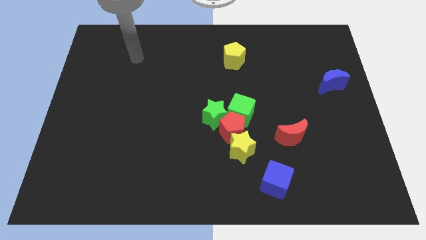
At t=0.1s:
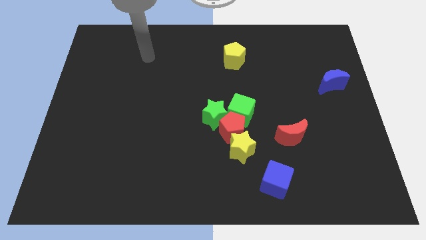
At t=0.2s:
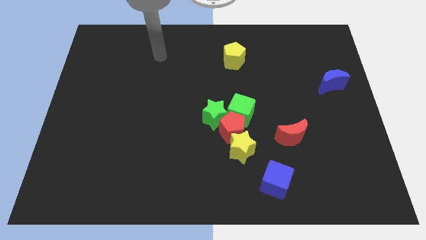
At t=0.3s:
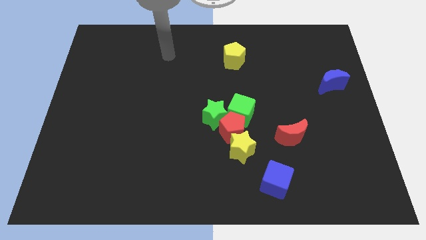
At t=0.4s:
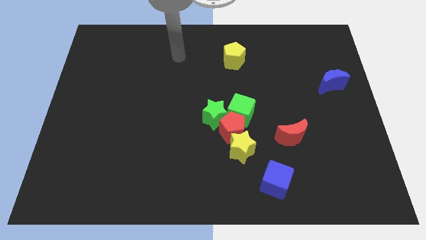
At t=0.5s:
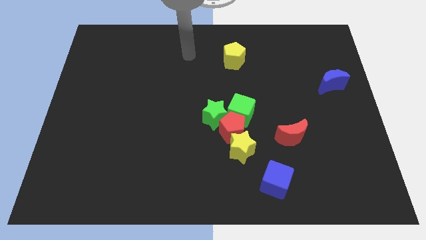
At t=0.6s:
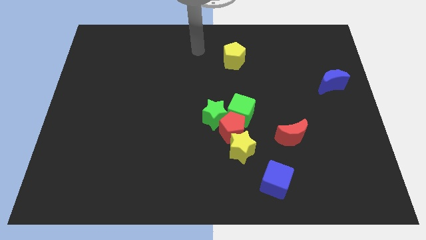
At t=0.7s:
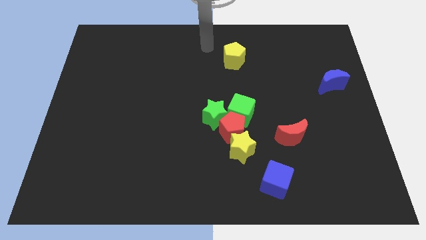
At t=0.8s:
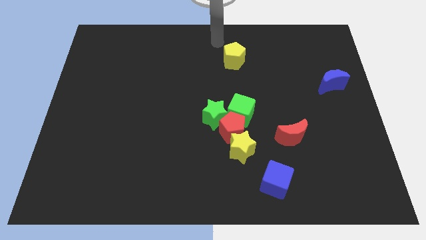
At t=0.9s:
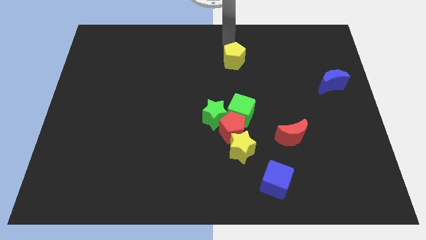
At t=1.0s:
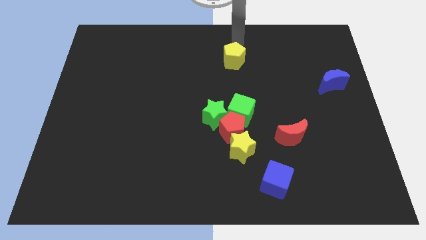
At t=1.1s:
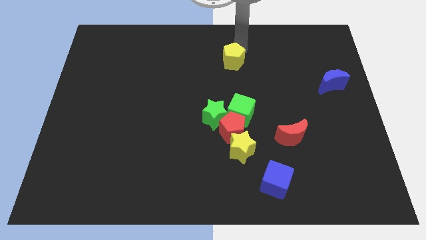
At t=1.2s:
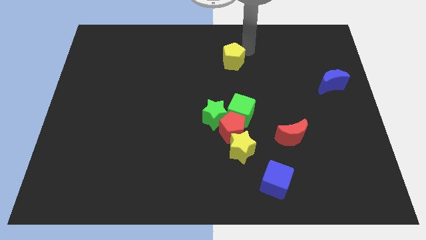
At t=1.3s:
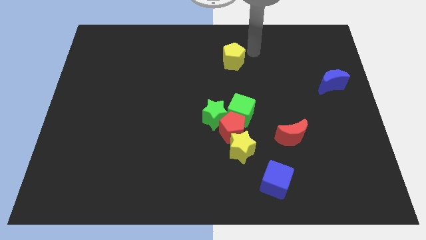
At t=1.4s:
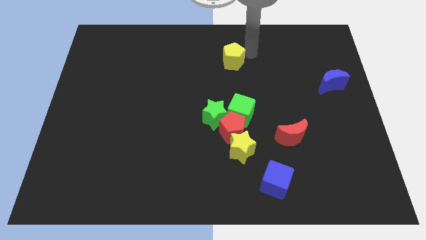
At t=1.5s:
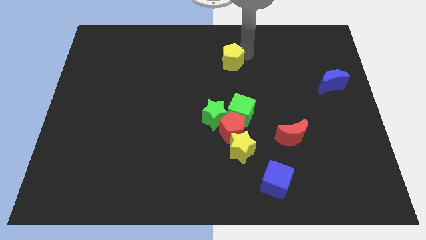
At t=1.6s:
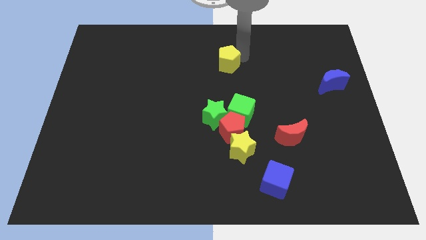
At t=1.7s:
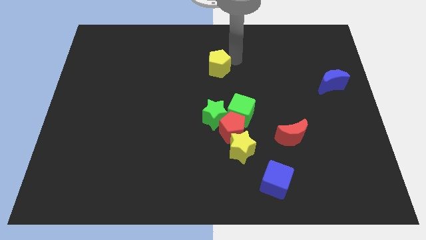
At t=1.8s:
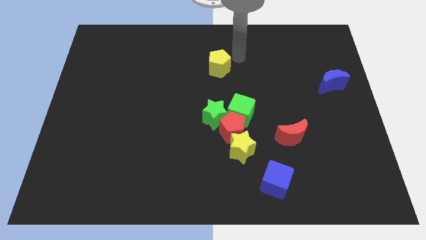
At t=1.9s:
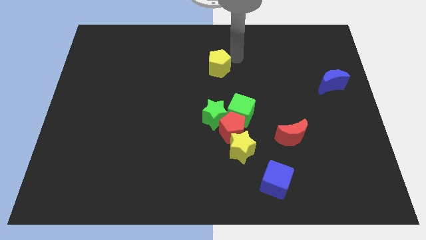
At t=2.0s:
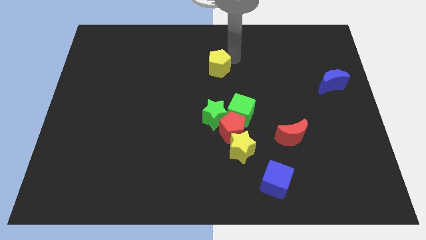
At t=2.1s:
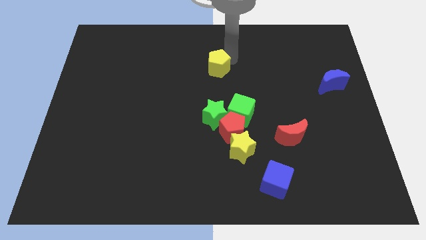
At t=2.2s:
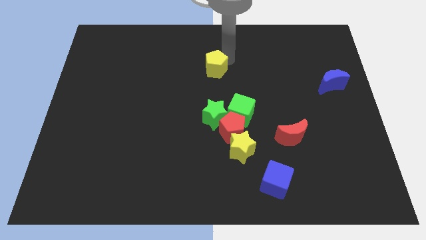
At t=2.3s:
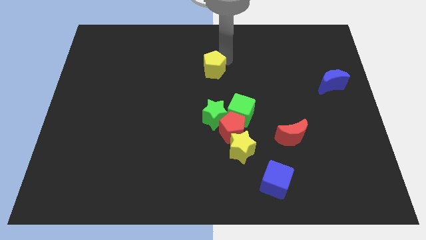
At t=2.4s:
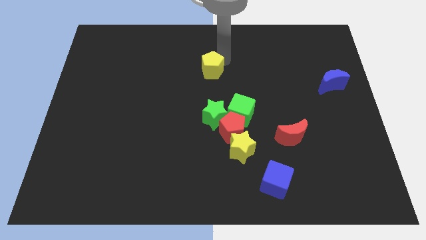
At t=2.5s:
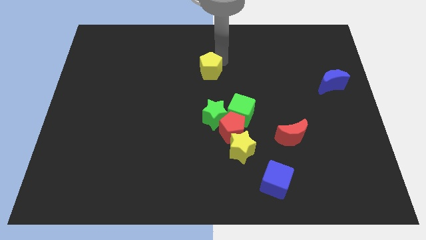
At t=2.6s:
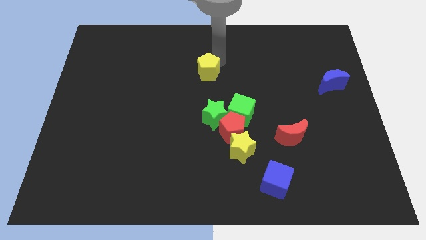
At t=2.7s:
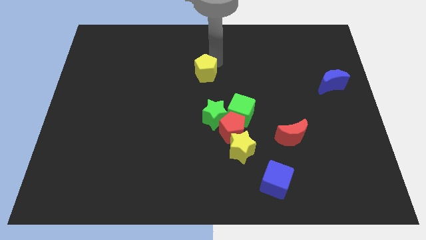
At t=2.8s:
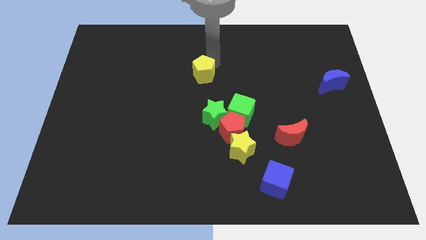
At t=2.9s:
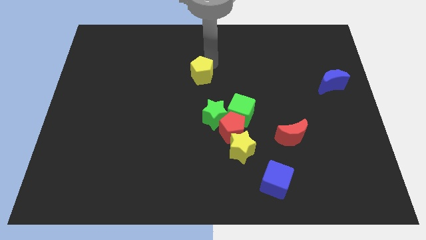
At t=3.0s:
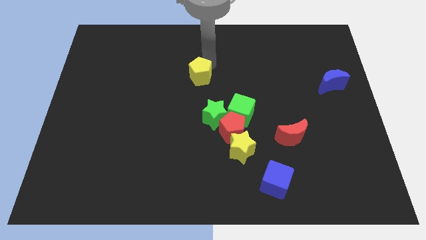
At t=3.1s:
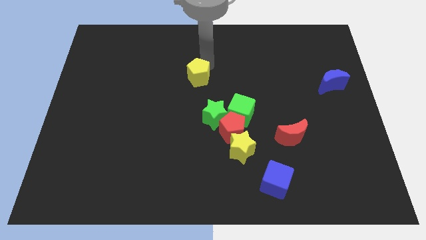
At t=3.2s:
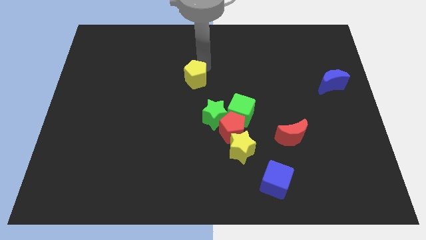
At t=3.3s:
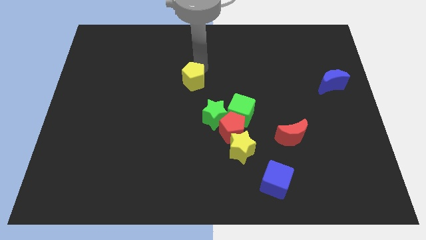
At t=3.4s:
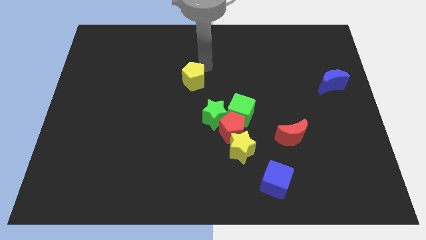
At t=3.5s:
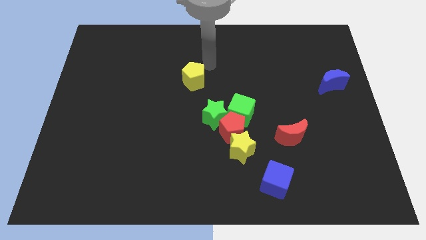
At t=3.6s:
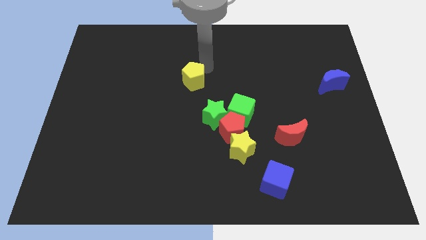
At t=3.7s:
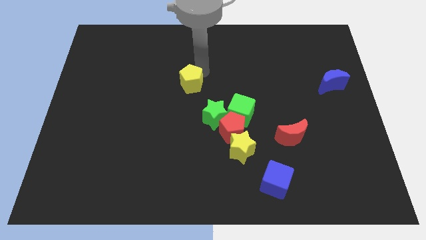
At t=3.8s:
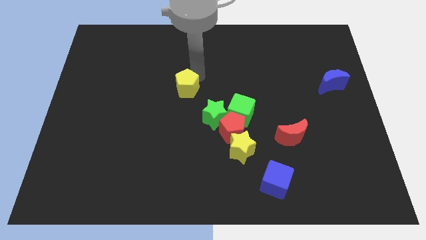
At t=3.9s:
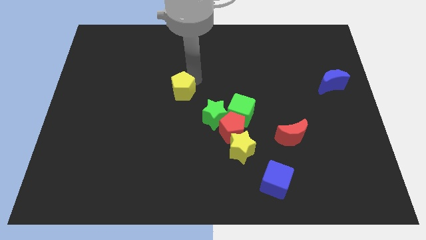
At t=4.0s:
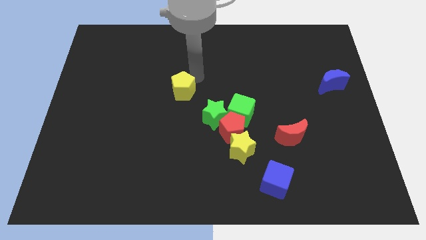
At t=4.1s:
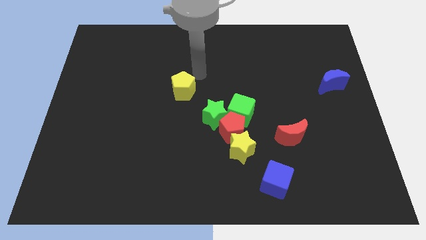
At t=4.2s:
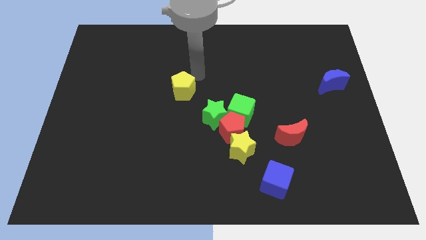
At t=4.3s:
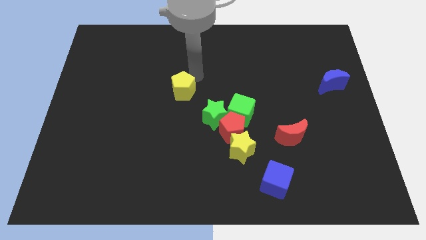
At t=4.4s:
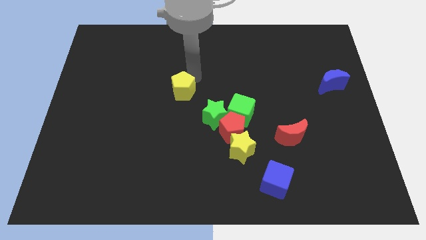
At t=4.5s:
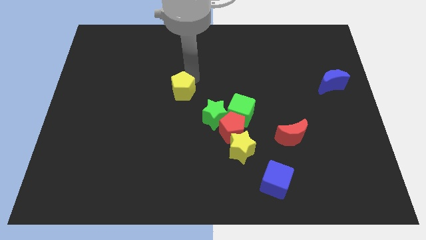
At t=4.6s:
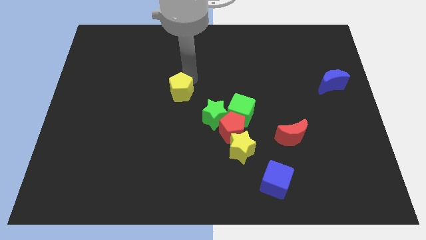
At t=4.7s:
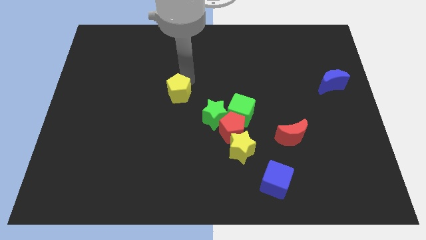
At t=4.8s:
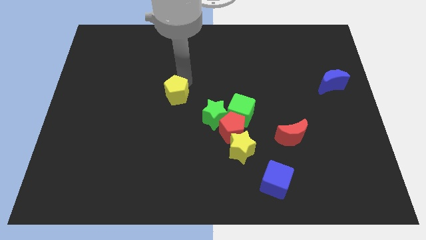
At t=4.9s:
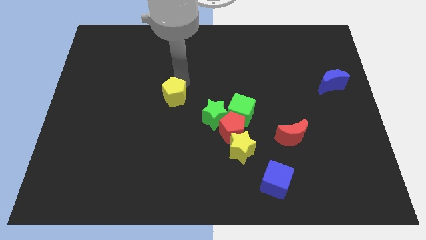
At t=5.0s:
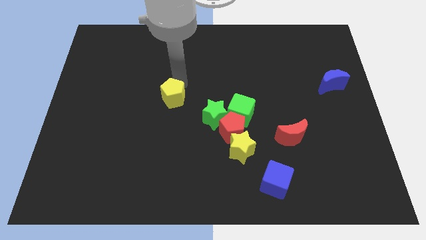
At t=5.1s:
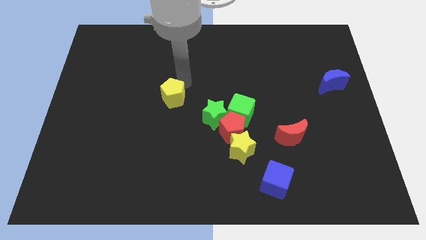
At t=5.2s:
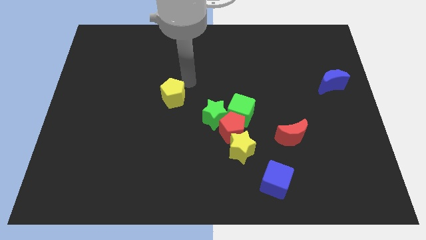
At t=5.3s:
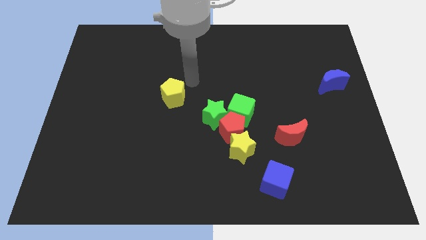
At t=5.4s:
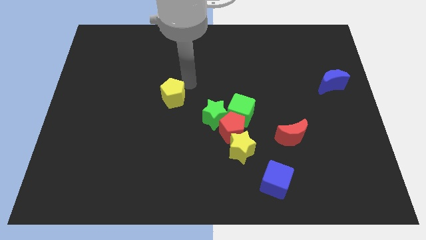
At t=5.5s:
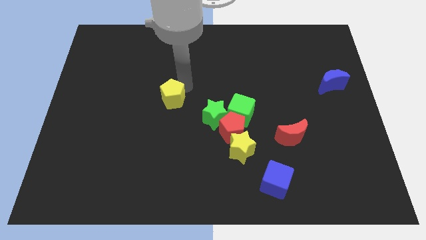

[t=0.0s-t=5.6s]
move the yellow pentagon down and to the left

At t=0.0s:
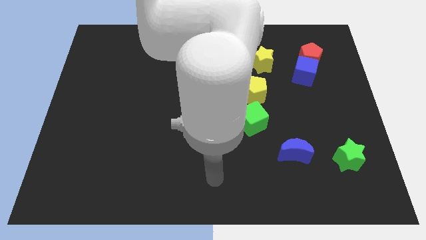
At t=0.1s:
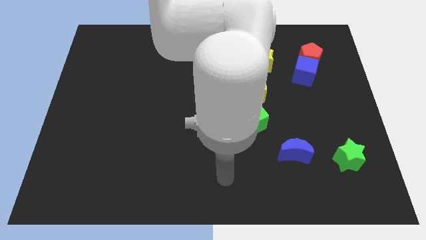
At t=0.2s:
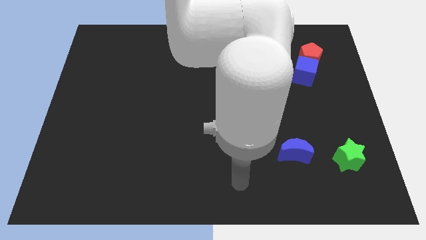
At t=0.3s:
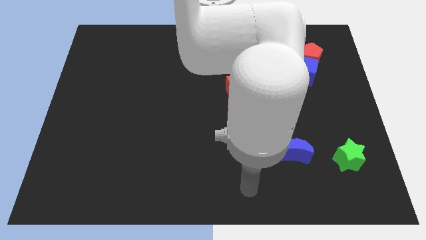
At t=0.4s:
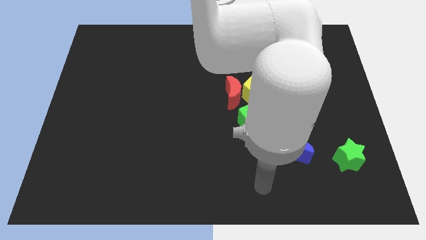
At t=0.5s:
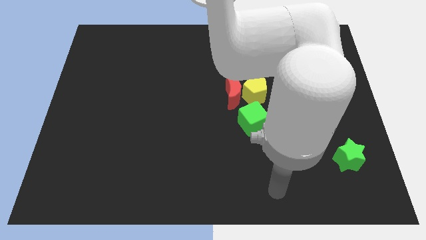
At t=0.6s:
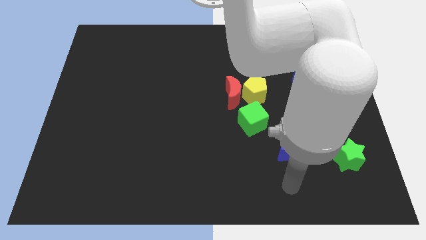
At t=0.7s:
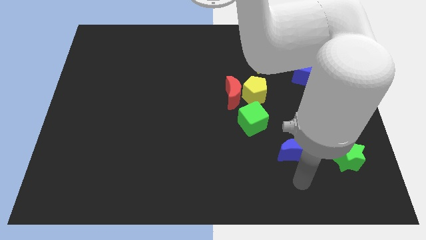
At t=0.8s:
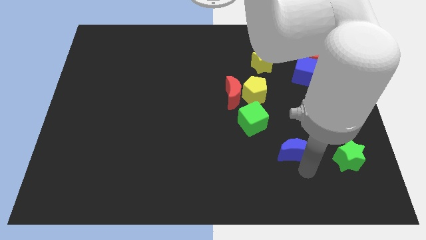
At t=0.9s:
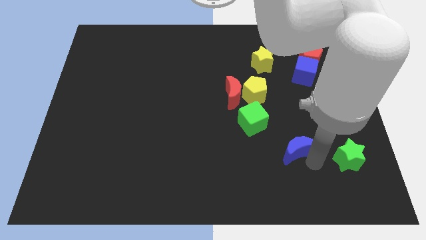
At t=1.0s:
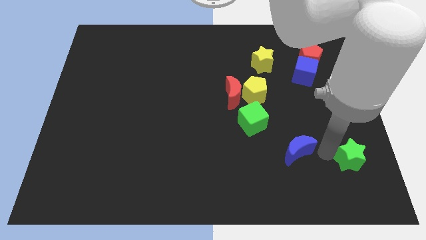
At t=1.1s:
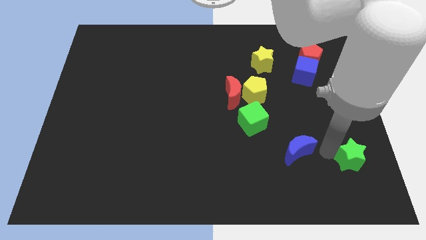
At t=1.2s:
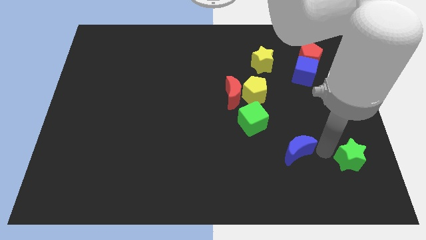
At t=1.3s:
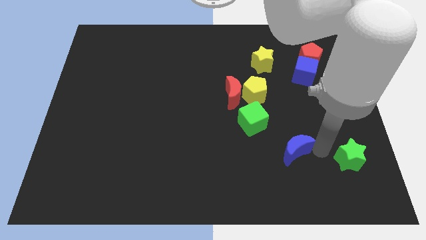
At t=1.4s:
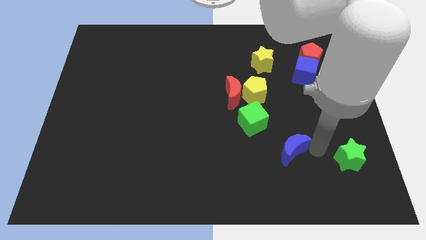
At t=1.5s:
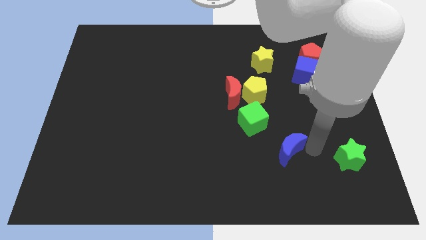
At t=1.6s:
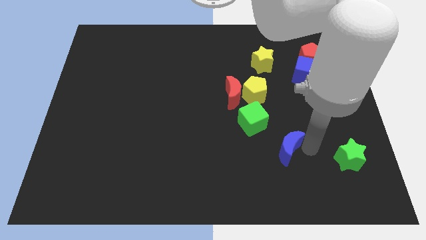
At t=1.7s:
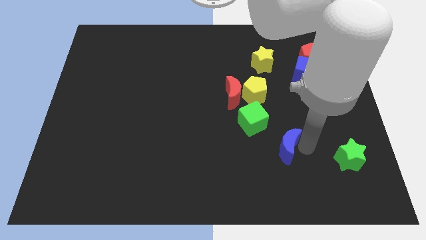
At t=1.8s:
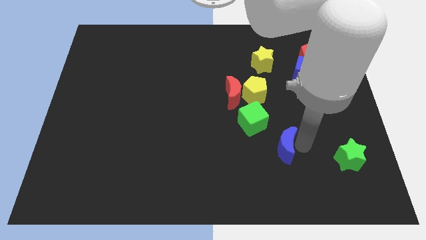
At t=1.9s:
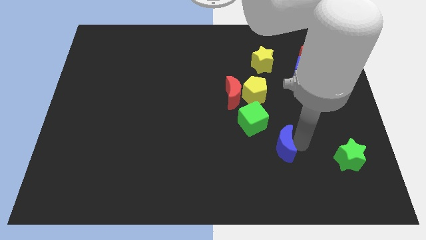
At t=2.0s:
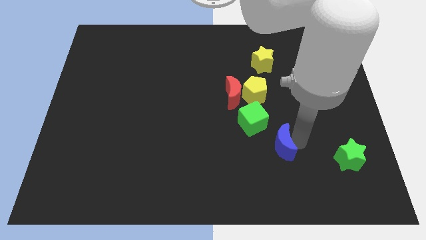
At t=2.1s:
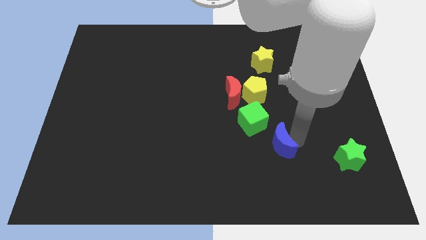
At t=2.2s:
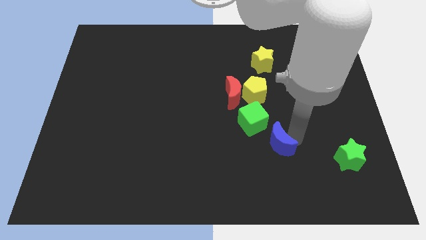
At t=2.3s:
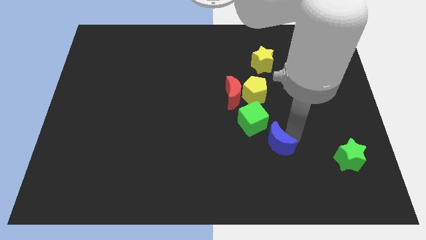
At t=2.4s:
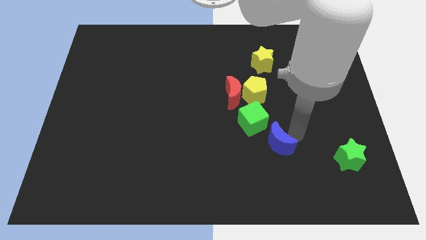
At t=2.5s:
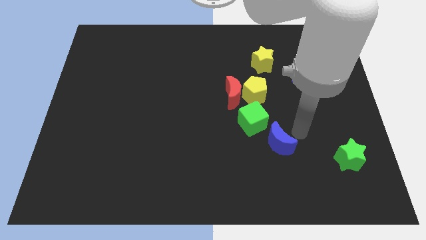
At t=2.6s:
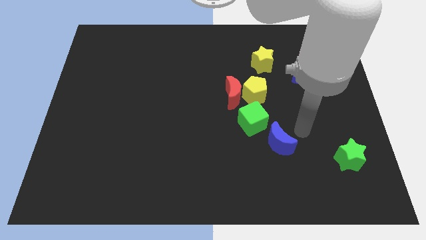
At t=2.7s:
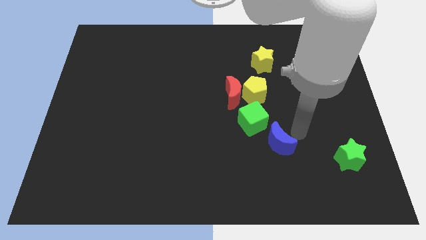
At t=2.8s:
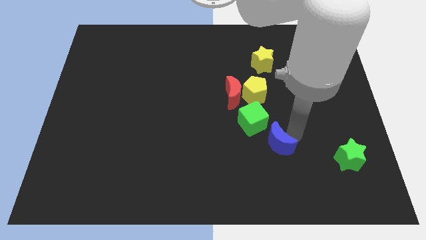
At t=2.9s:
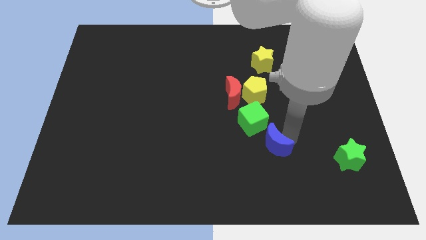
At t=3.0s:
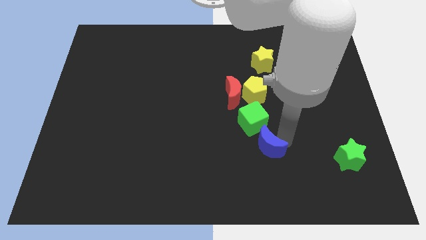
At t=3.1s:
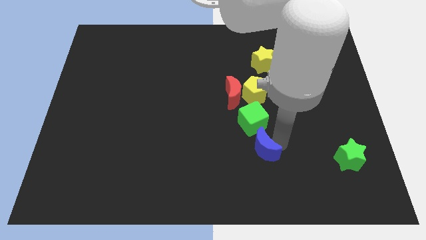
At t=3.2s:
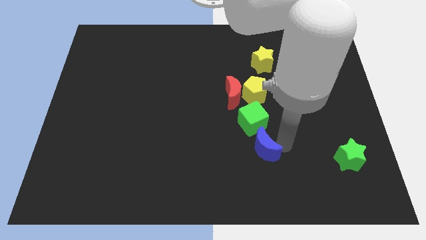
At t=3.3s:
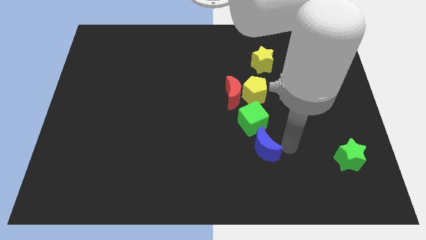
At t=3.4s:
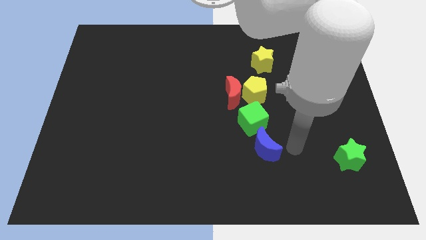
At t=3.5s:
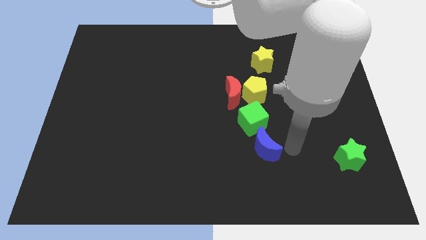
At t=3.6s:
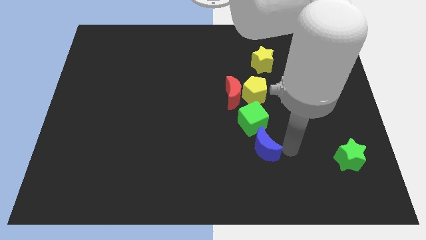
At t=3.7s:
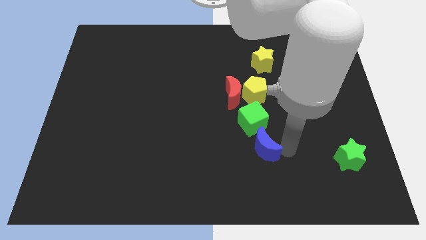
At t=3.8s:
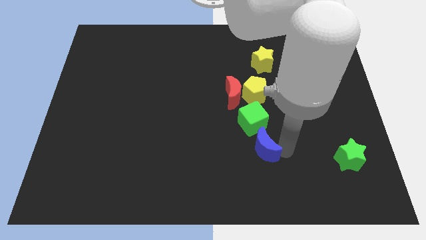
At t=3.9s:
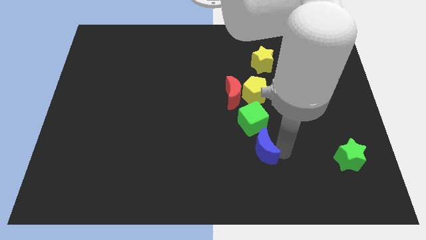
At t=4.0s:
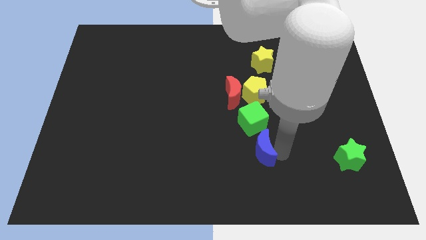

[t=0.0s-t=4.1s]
slide the blue moon left a little bit
